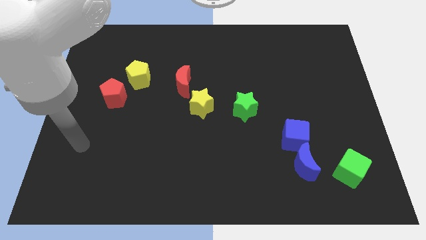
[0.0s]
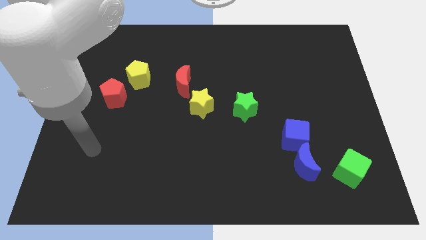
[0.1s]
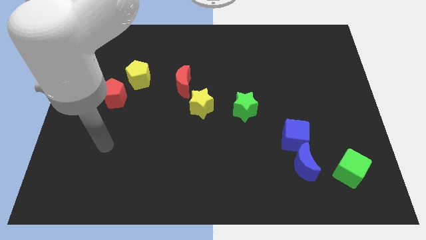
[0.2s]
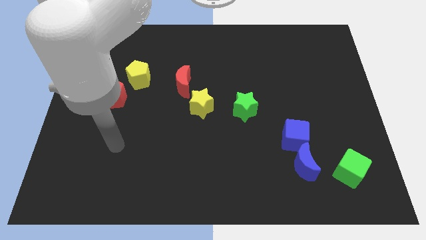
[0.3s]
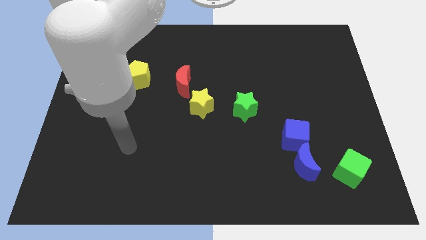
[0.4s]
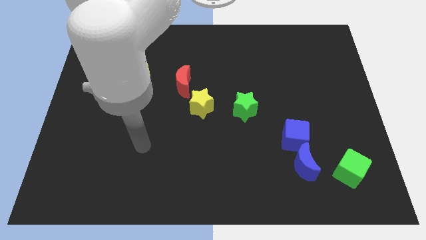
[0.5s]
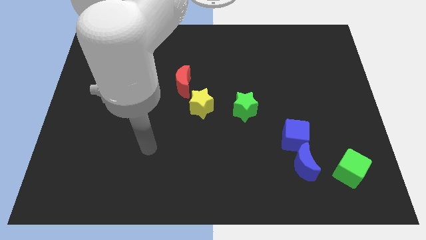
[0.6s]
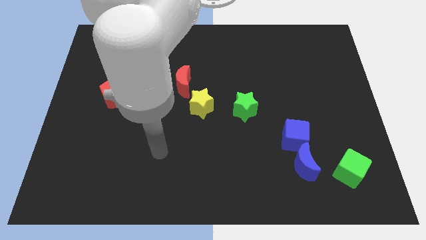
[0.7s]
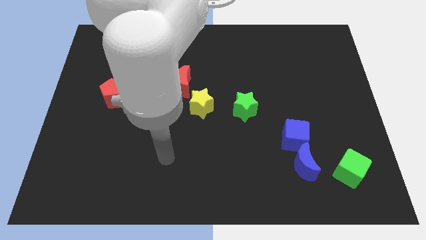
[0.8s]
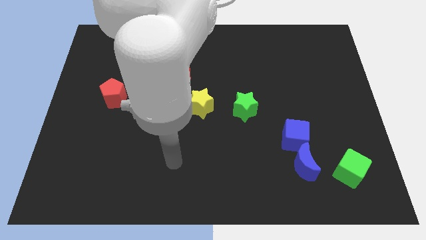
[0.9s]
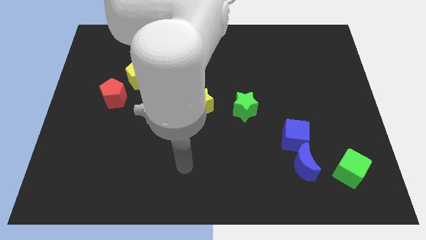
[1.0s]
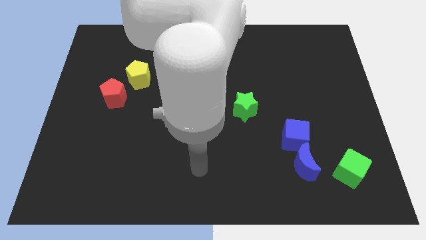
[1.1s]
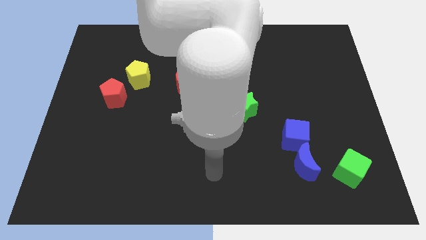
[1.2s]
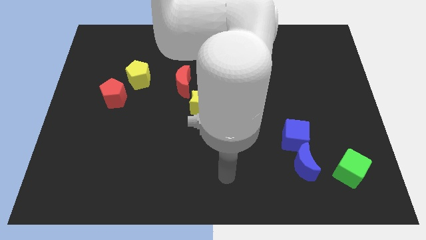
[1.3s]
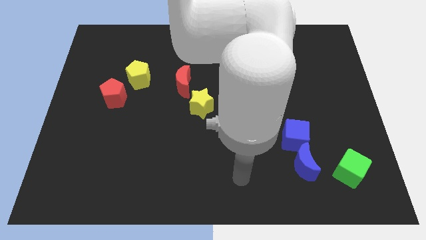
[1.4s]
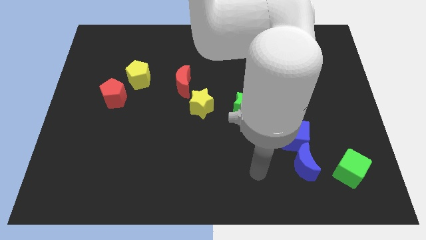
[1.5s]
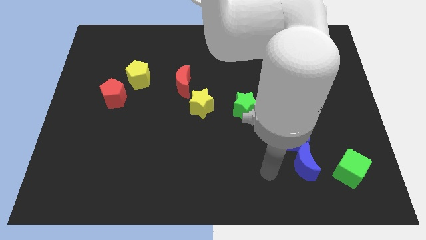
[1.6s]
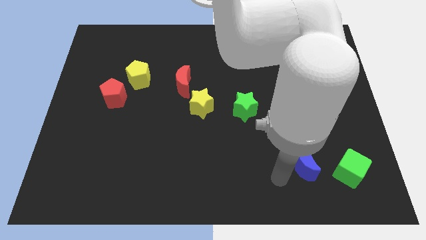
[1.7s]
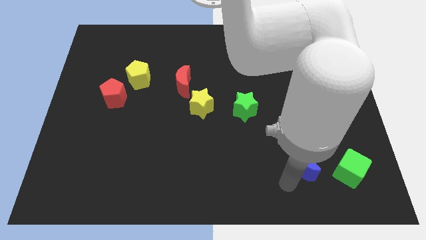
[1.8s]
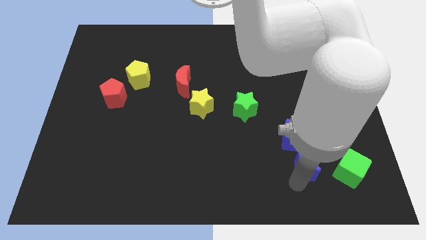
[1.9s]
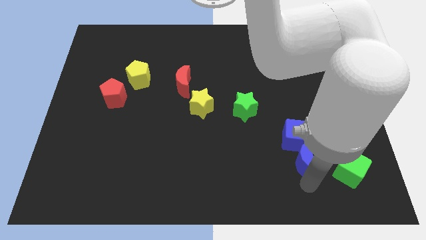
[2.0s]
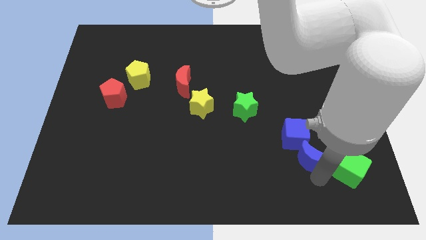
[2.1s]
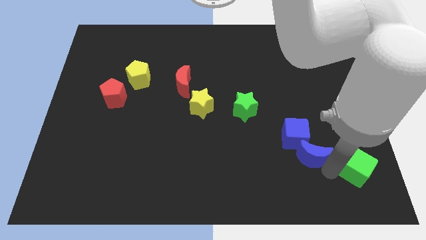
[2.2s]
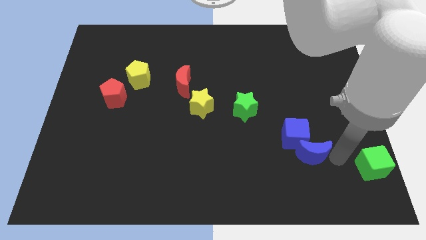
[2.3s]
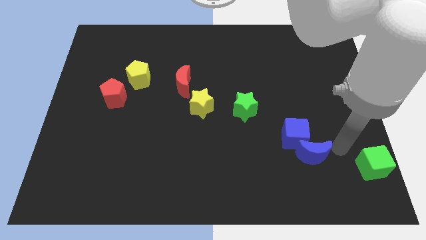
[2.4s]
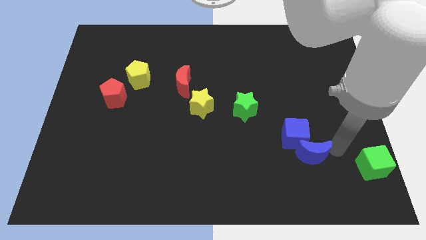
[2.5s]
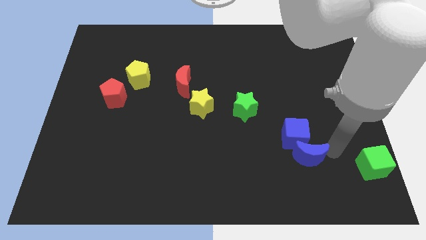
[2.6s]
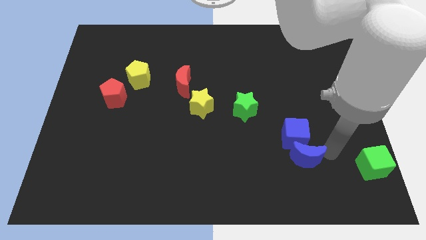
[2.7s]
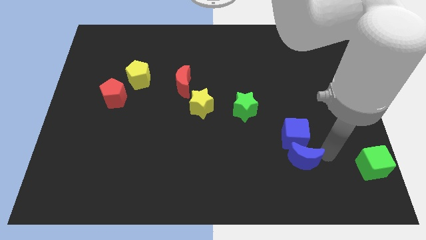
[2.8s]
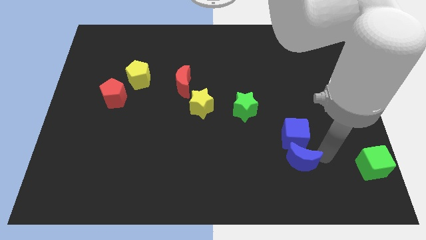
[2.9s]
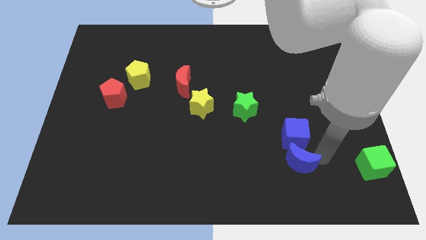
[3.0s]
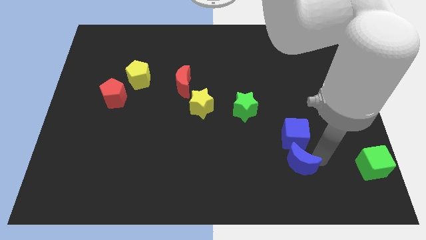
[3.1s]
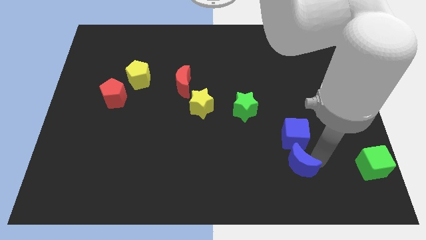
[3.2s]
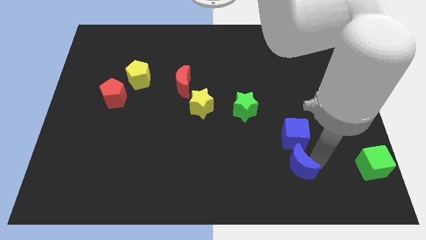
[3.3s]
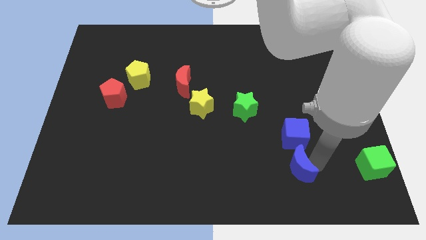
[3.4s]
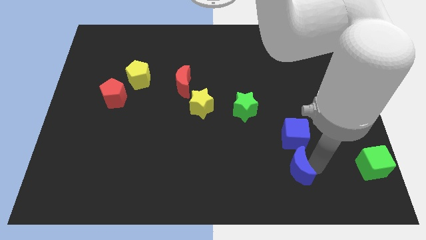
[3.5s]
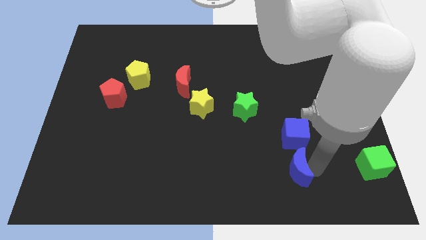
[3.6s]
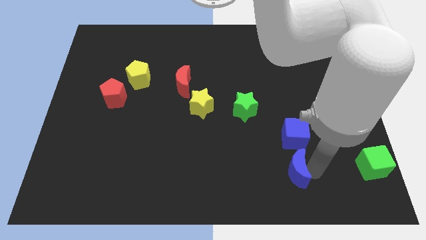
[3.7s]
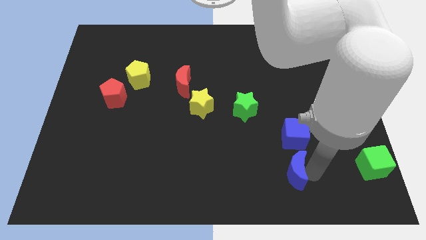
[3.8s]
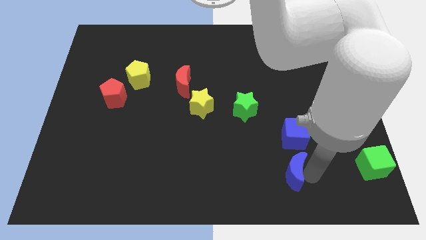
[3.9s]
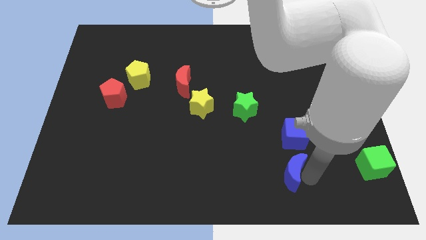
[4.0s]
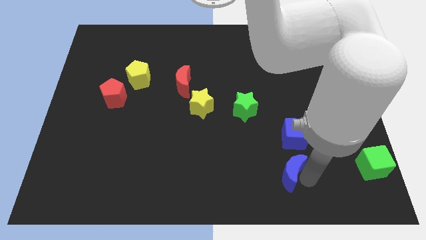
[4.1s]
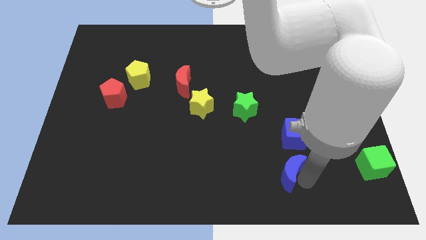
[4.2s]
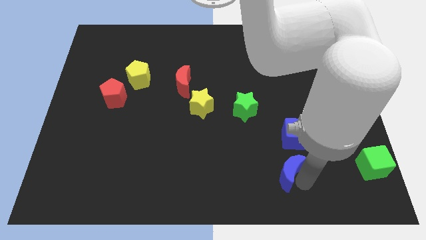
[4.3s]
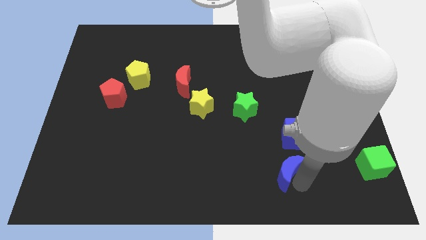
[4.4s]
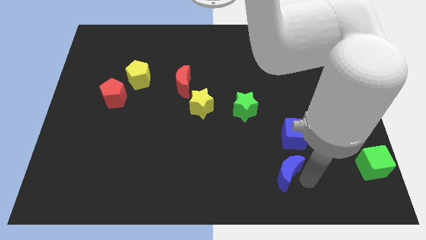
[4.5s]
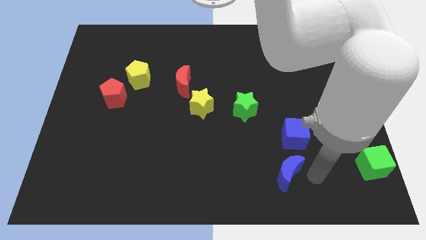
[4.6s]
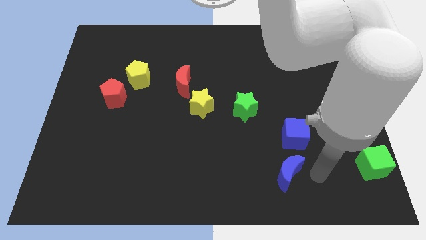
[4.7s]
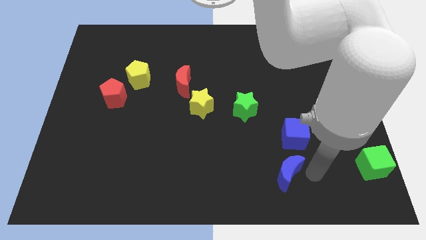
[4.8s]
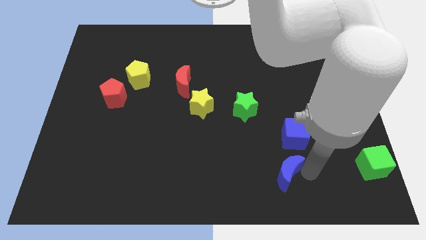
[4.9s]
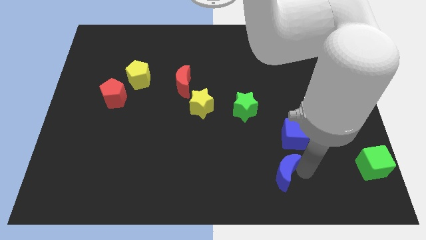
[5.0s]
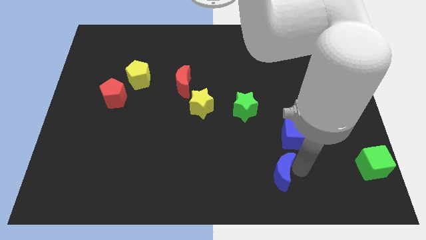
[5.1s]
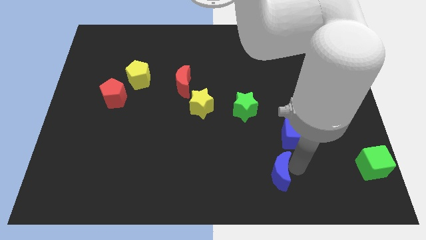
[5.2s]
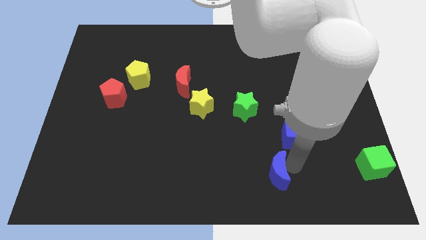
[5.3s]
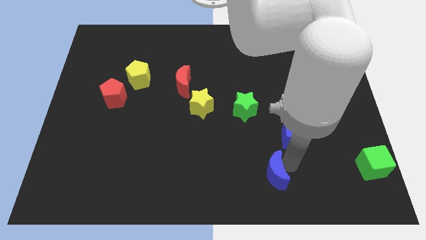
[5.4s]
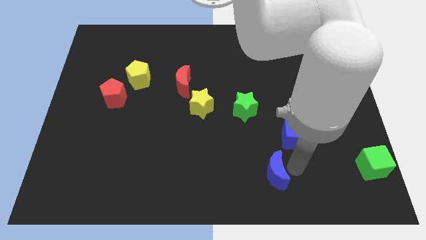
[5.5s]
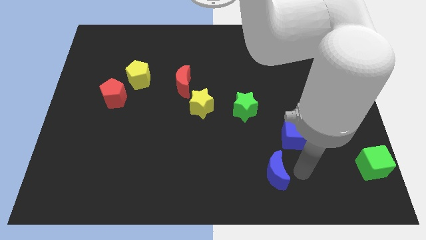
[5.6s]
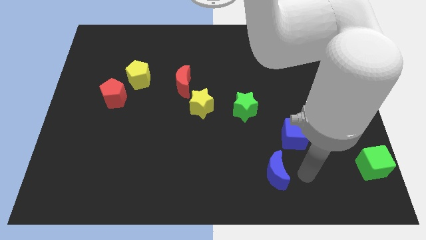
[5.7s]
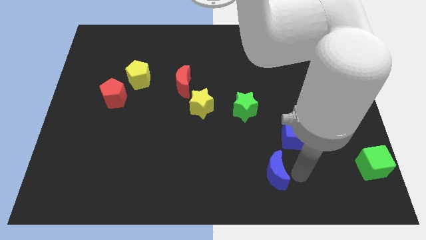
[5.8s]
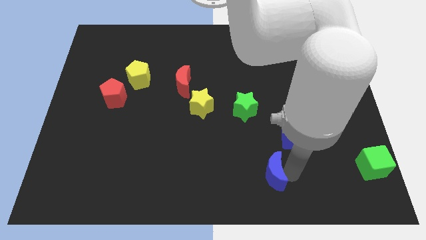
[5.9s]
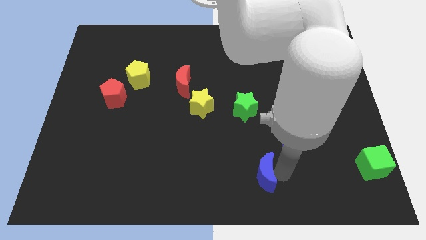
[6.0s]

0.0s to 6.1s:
slightly slide the blue moon left

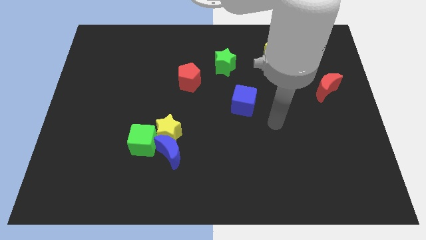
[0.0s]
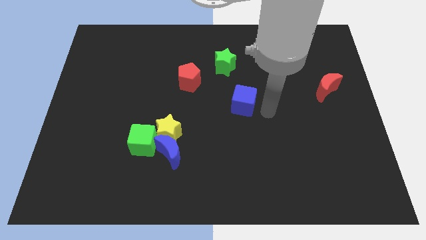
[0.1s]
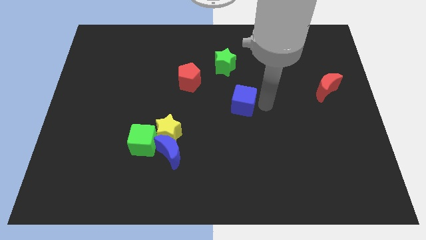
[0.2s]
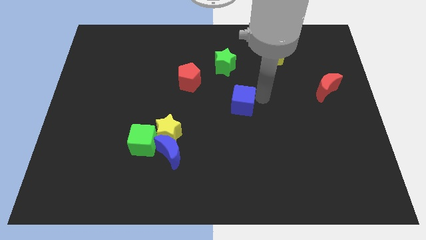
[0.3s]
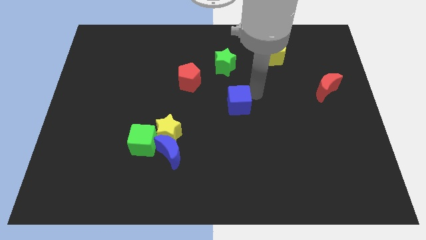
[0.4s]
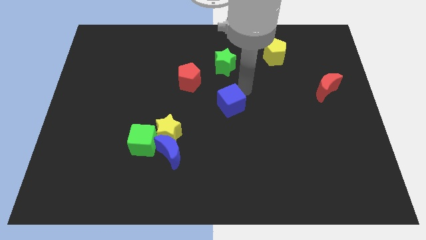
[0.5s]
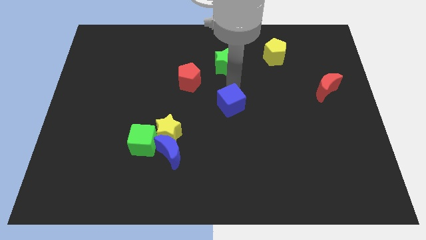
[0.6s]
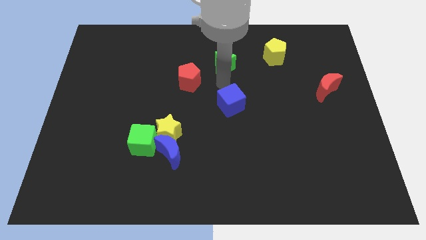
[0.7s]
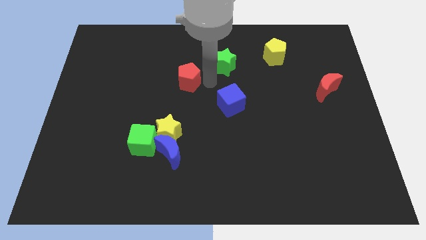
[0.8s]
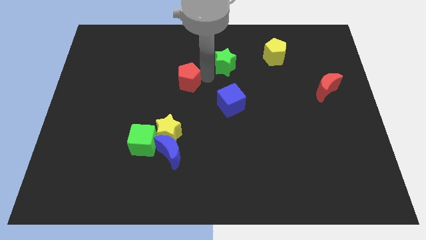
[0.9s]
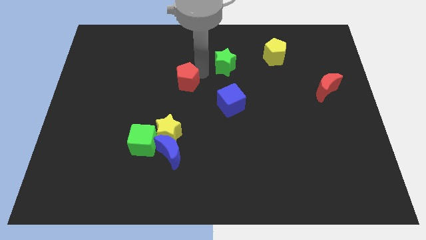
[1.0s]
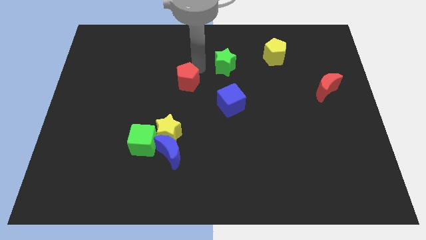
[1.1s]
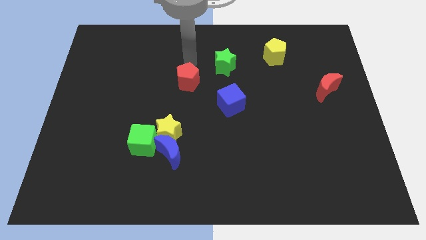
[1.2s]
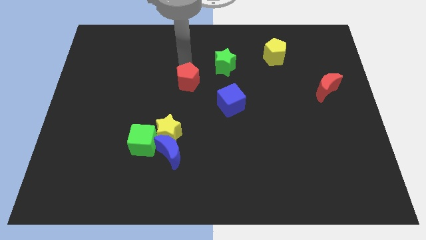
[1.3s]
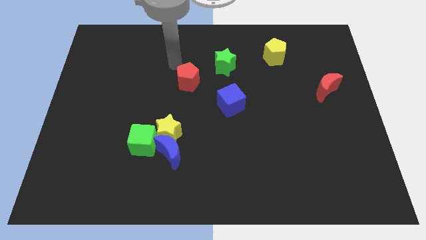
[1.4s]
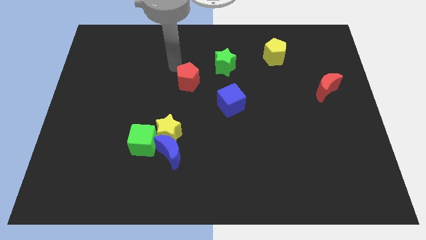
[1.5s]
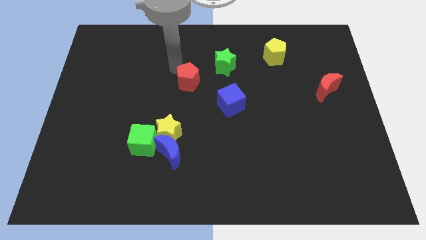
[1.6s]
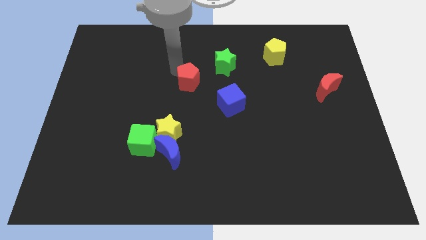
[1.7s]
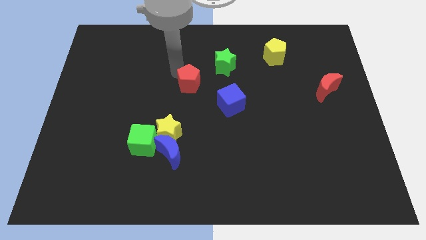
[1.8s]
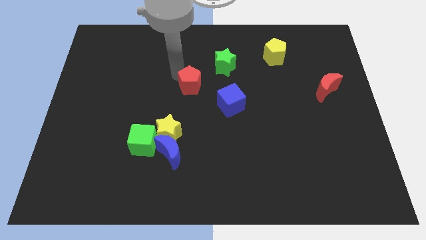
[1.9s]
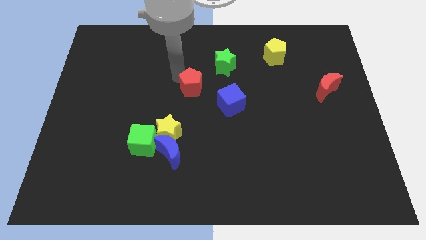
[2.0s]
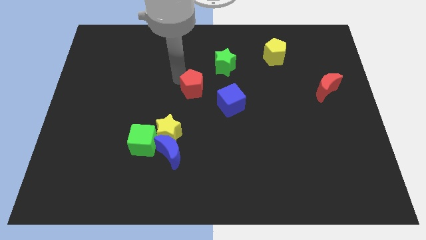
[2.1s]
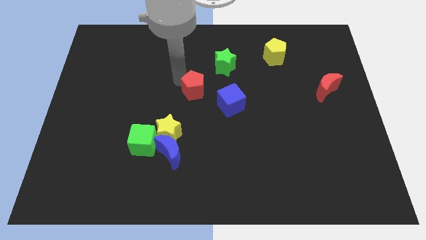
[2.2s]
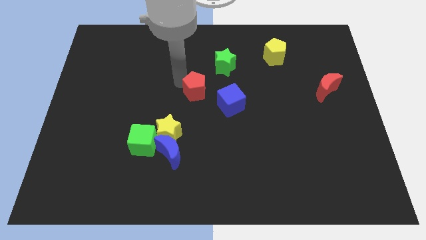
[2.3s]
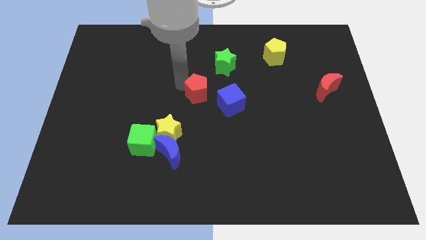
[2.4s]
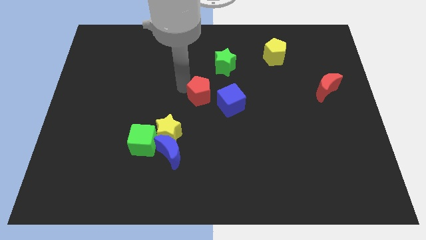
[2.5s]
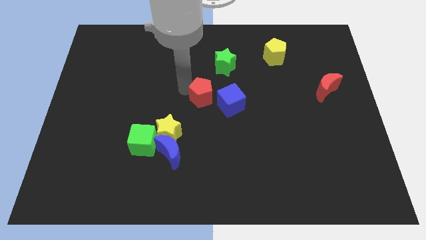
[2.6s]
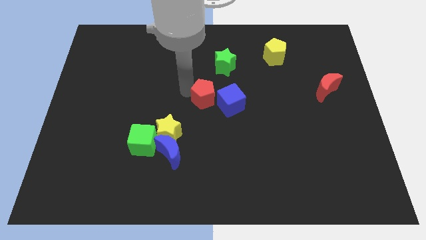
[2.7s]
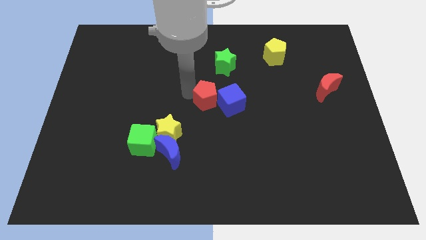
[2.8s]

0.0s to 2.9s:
move the red pentagon a bit diagonally down and right
